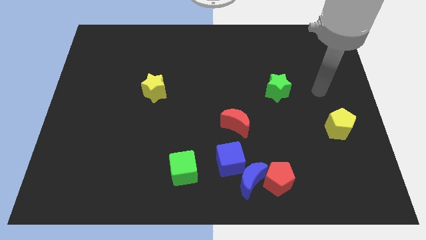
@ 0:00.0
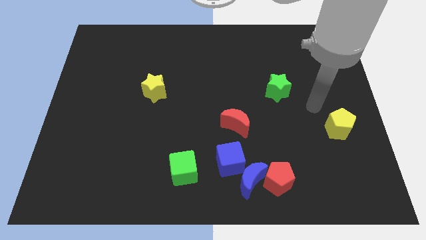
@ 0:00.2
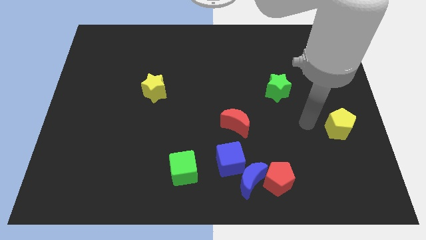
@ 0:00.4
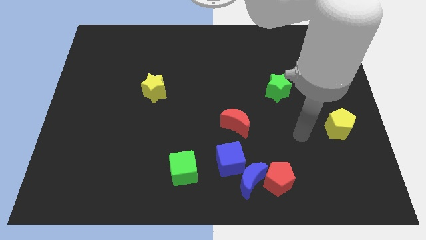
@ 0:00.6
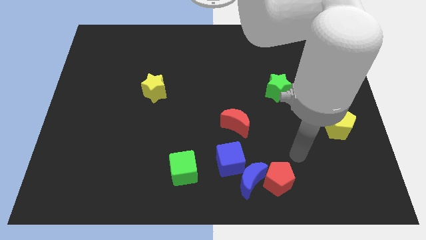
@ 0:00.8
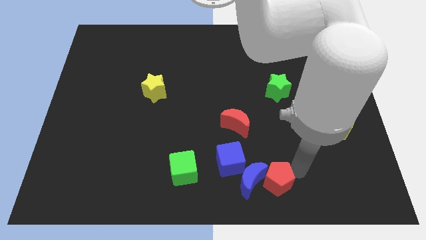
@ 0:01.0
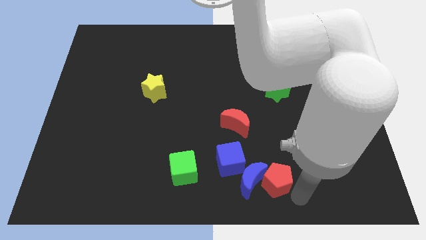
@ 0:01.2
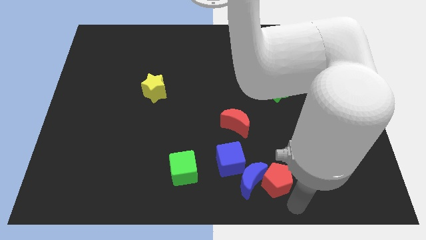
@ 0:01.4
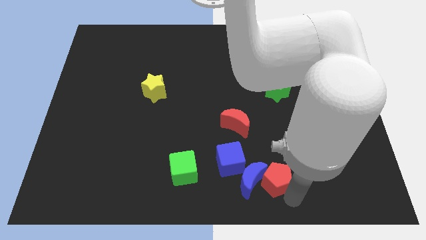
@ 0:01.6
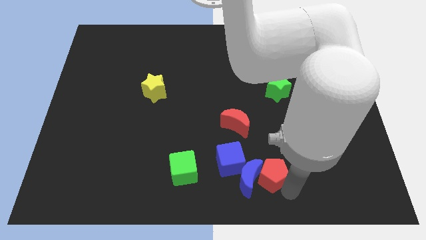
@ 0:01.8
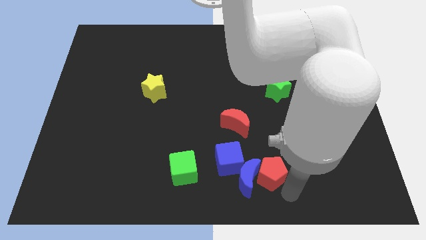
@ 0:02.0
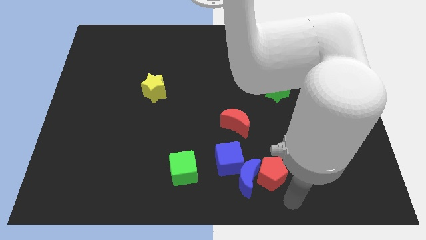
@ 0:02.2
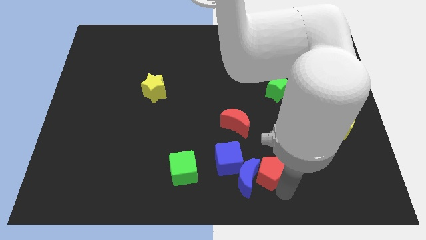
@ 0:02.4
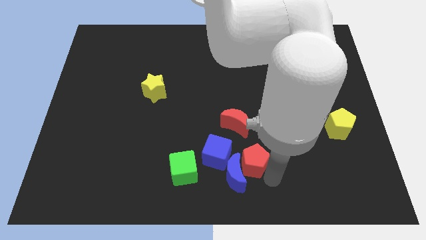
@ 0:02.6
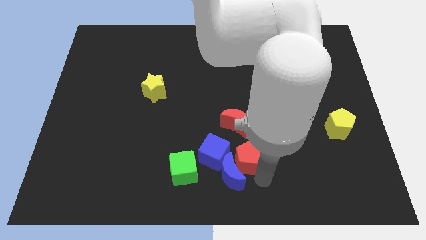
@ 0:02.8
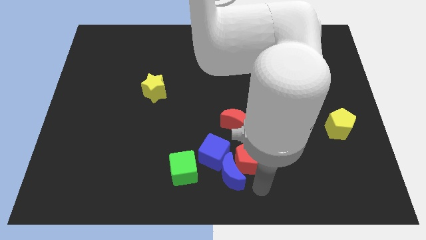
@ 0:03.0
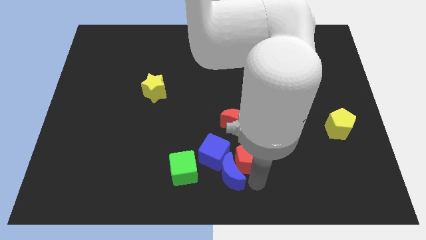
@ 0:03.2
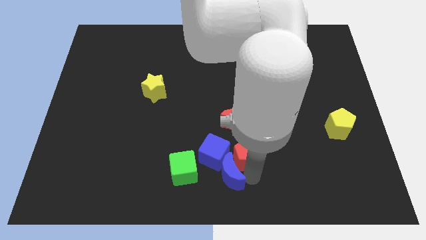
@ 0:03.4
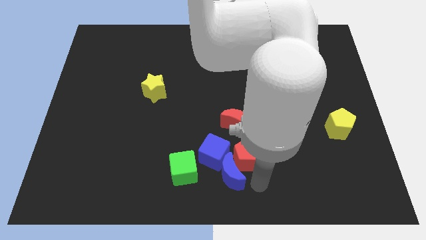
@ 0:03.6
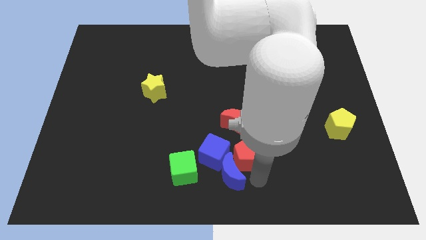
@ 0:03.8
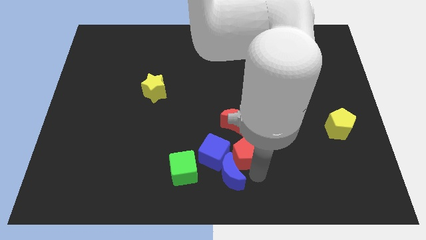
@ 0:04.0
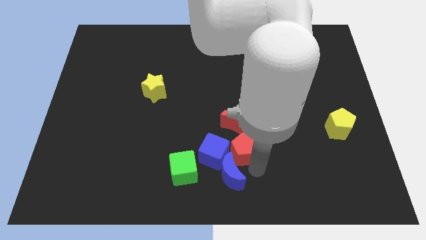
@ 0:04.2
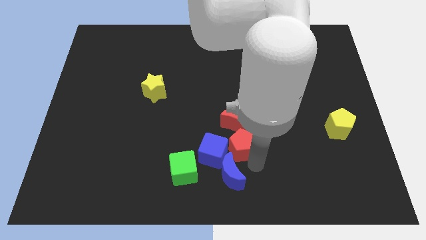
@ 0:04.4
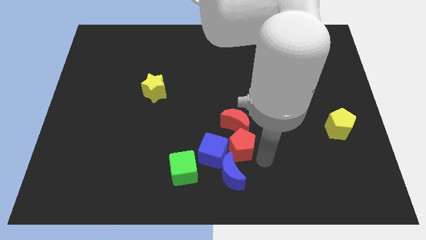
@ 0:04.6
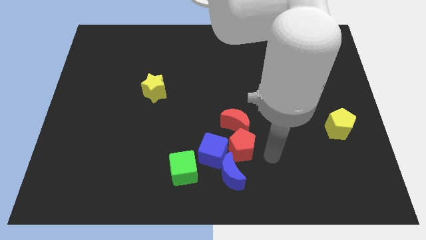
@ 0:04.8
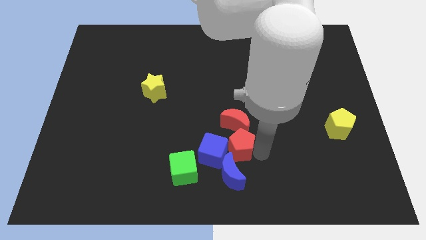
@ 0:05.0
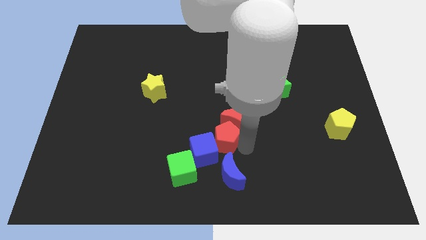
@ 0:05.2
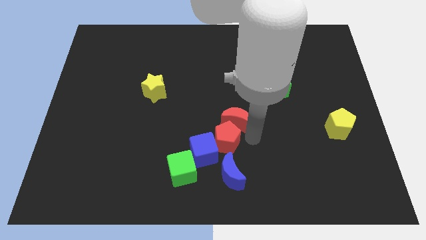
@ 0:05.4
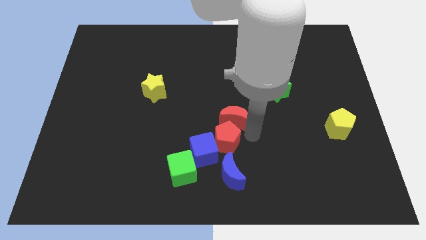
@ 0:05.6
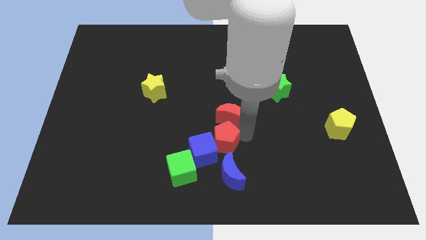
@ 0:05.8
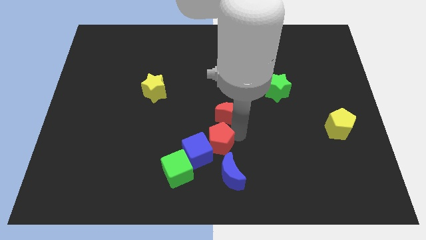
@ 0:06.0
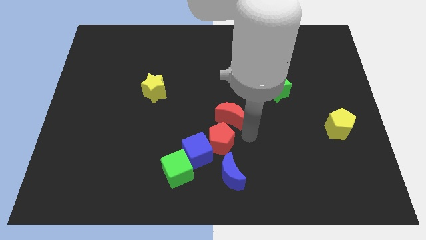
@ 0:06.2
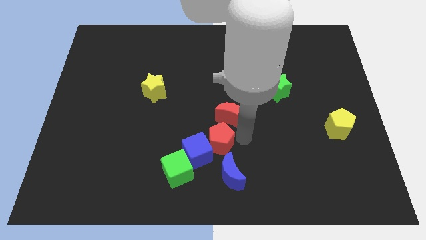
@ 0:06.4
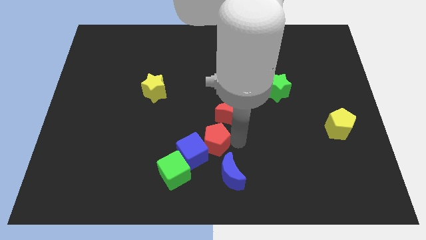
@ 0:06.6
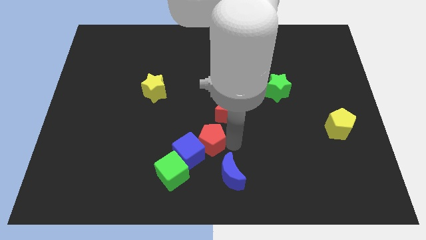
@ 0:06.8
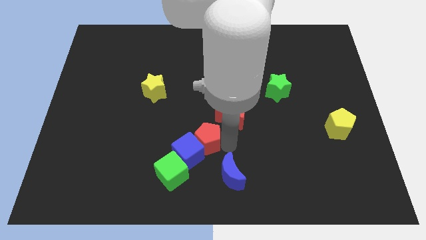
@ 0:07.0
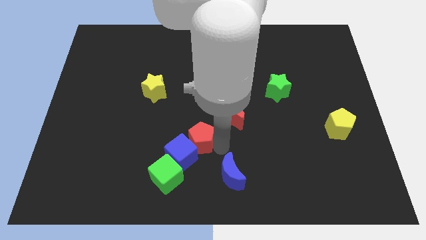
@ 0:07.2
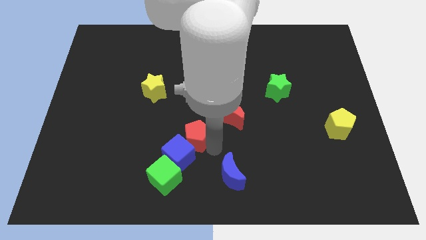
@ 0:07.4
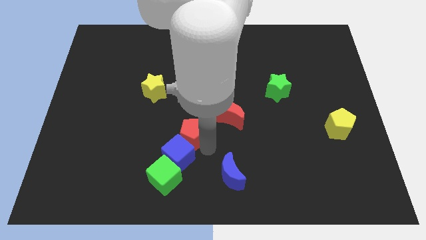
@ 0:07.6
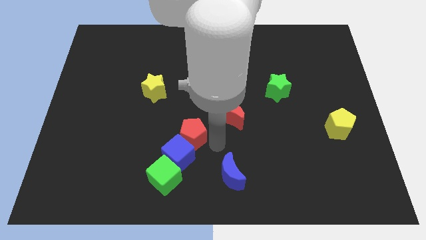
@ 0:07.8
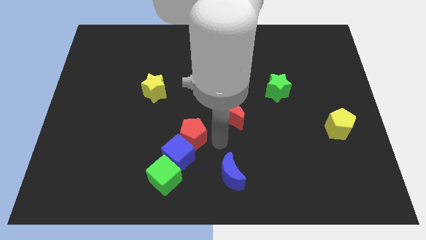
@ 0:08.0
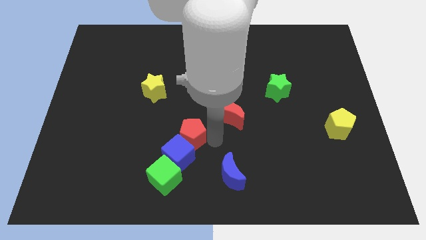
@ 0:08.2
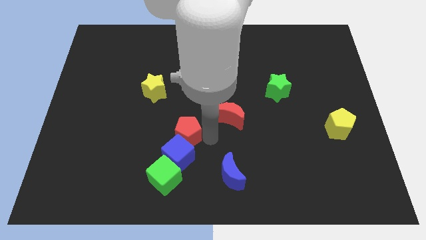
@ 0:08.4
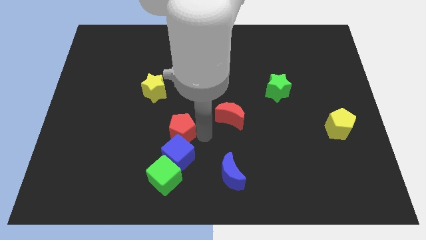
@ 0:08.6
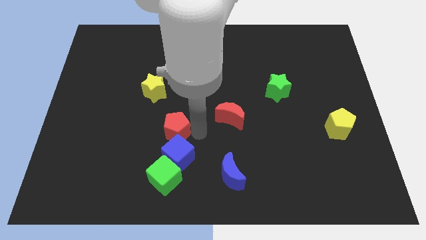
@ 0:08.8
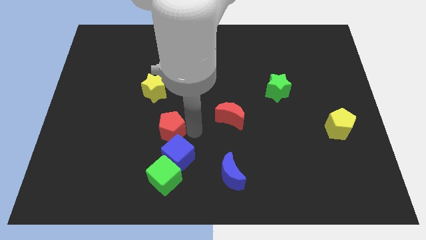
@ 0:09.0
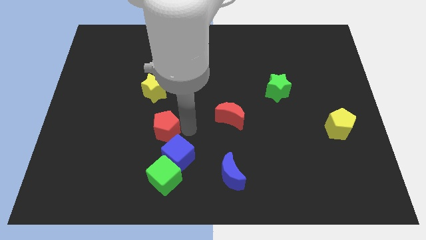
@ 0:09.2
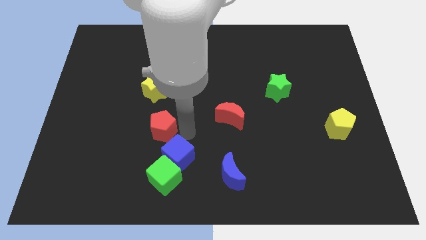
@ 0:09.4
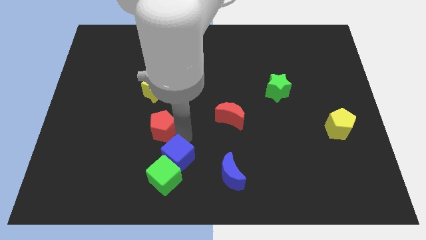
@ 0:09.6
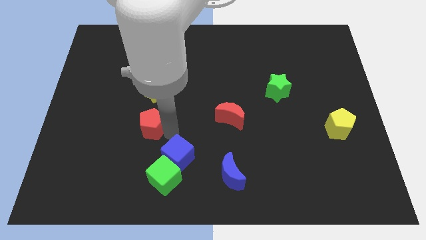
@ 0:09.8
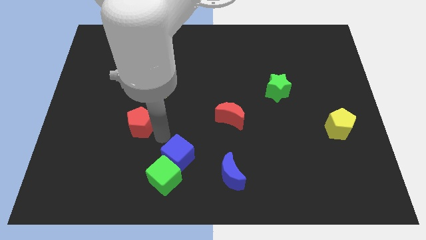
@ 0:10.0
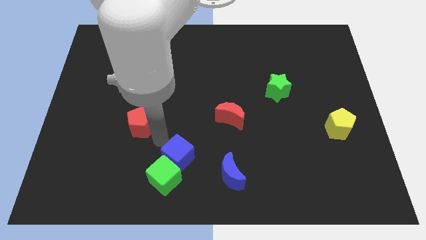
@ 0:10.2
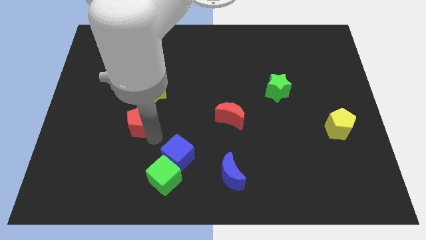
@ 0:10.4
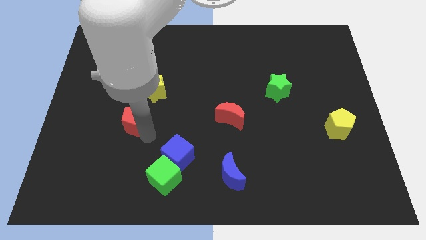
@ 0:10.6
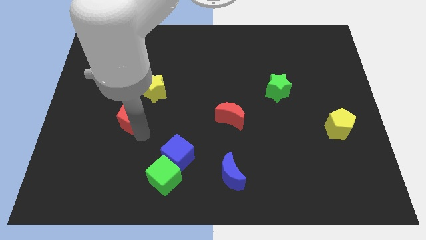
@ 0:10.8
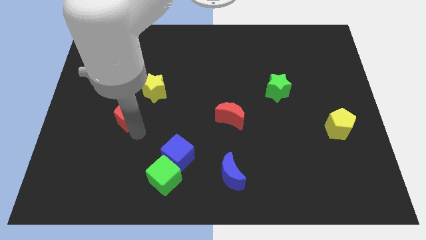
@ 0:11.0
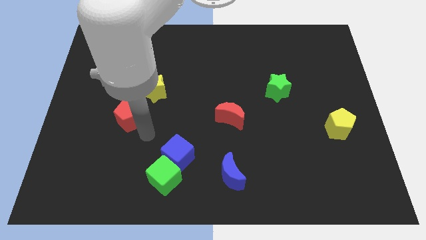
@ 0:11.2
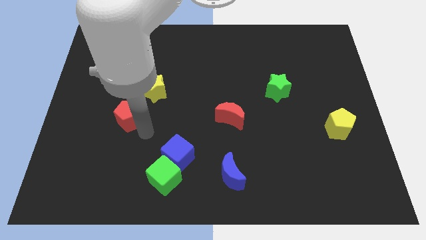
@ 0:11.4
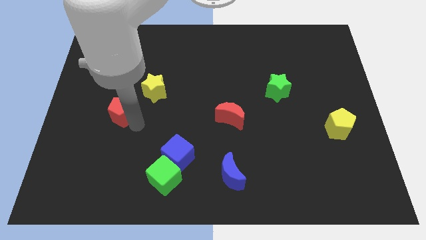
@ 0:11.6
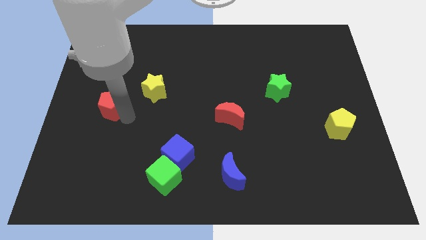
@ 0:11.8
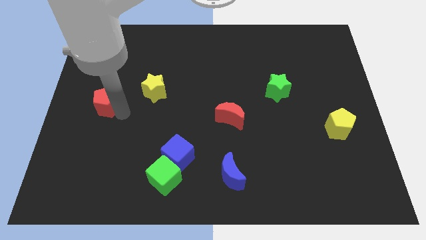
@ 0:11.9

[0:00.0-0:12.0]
slide the red pentagon to the left side of the board

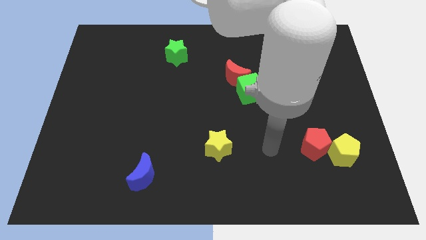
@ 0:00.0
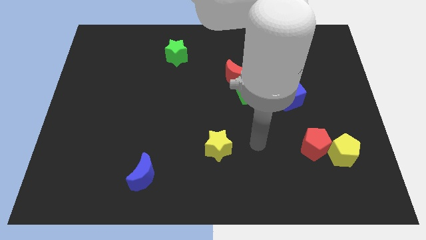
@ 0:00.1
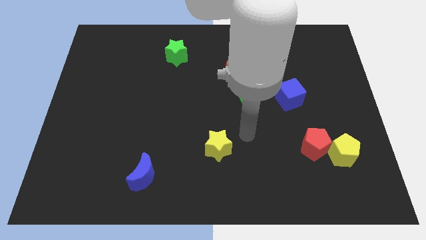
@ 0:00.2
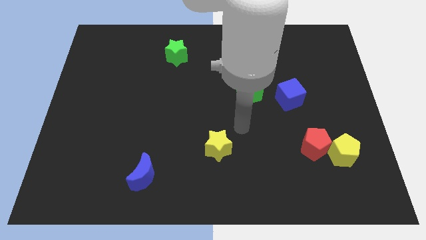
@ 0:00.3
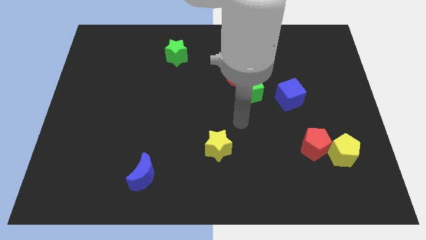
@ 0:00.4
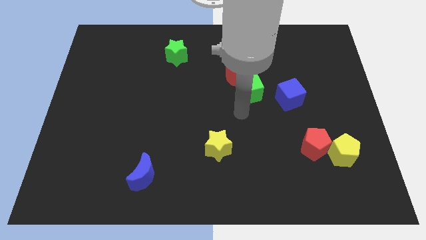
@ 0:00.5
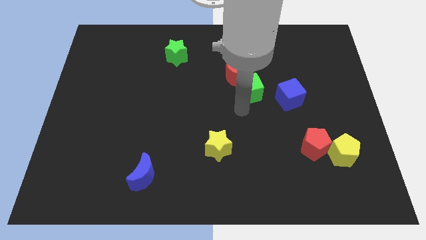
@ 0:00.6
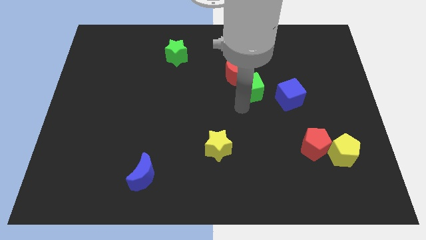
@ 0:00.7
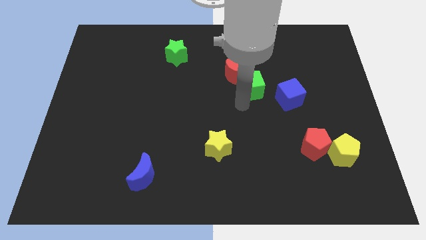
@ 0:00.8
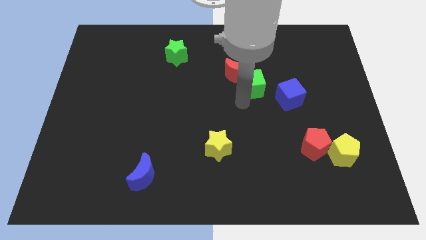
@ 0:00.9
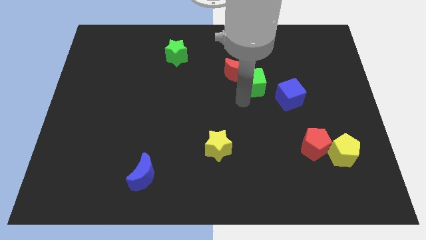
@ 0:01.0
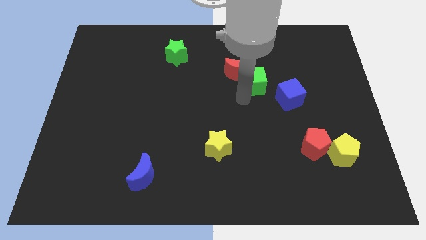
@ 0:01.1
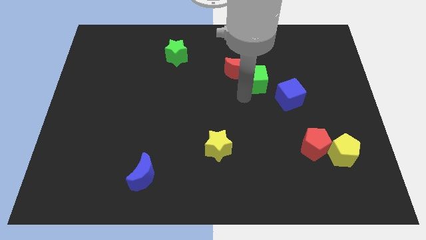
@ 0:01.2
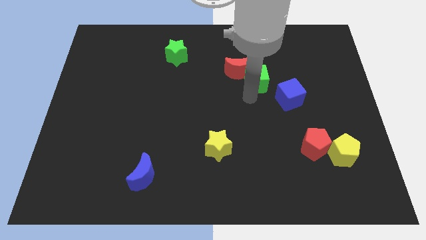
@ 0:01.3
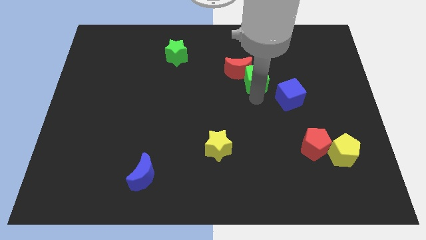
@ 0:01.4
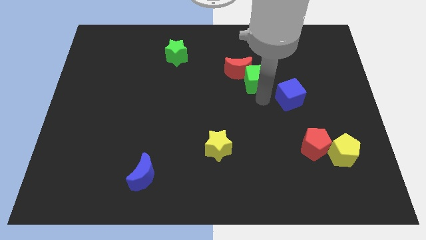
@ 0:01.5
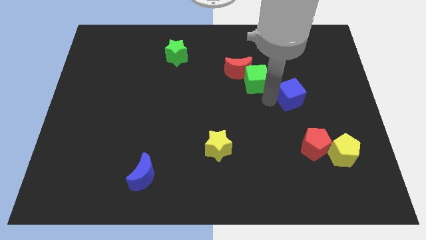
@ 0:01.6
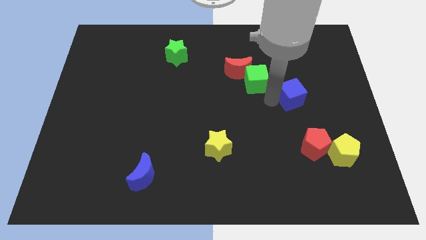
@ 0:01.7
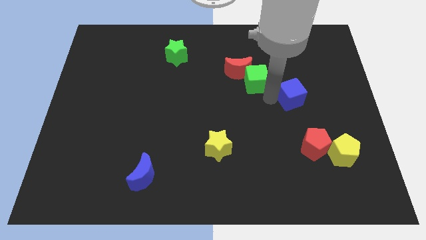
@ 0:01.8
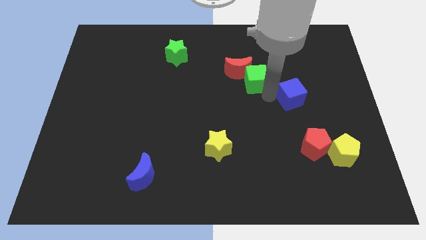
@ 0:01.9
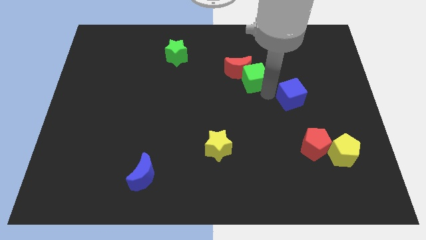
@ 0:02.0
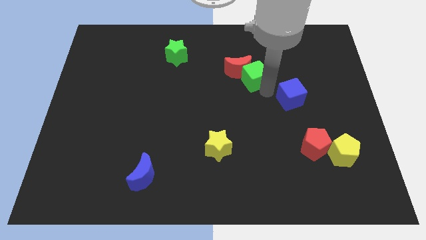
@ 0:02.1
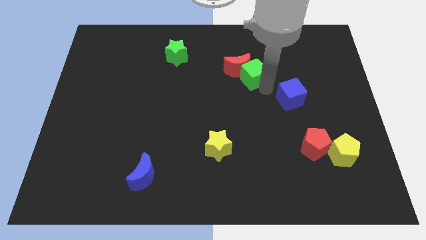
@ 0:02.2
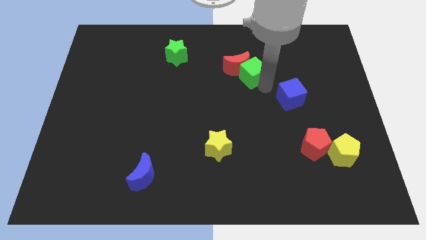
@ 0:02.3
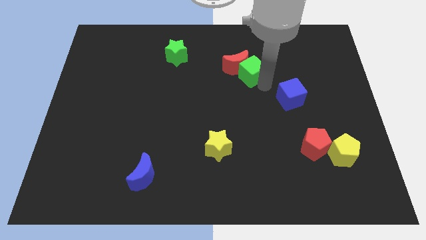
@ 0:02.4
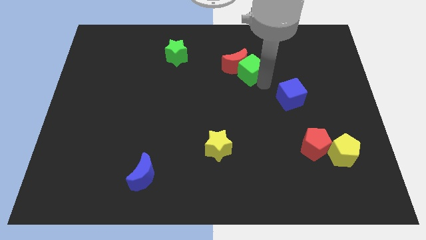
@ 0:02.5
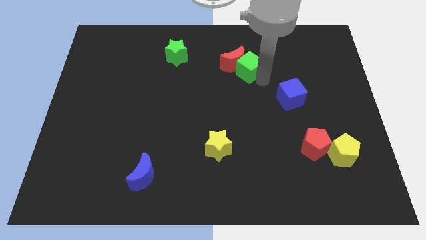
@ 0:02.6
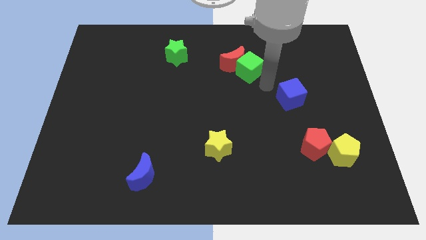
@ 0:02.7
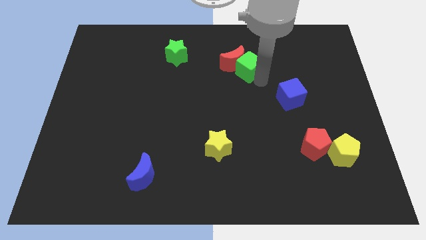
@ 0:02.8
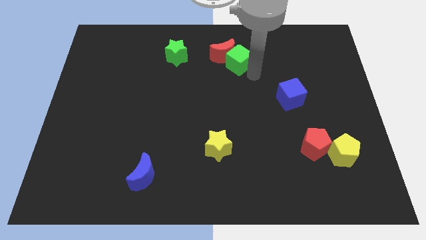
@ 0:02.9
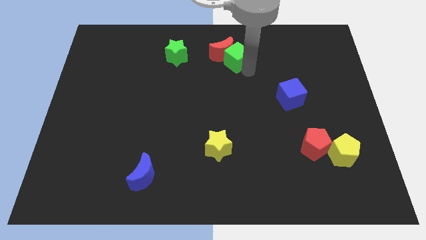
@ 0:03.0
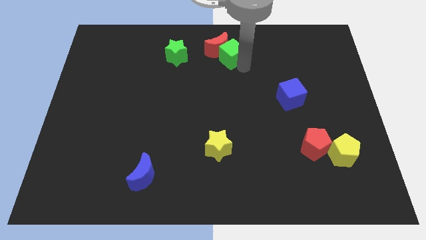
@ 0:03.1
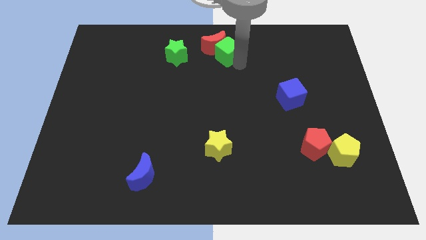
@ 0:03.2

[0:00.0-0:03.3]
move the green cube to the top
